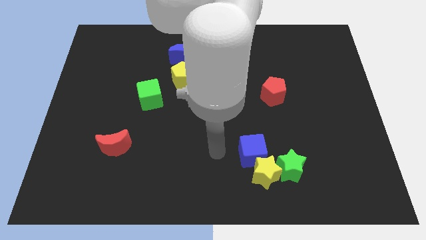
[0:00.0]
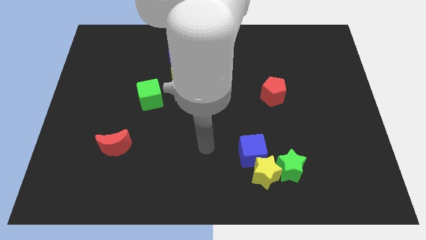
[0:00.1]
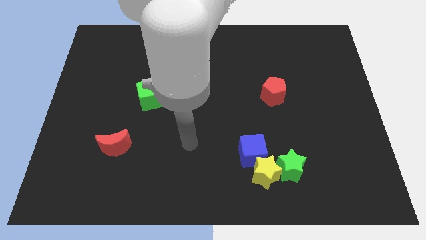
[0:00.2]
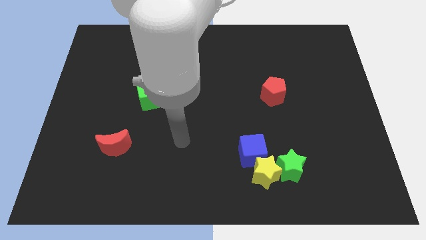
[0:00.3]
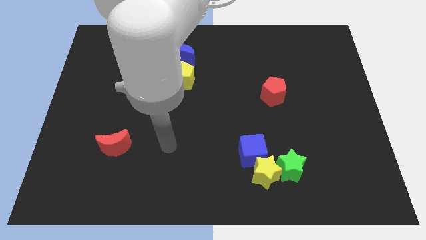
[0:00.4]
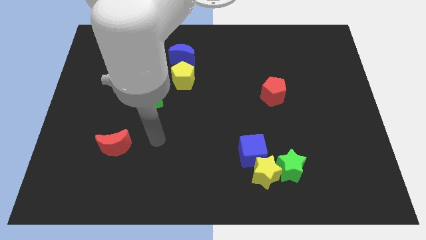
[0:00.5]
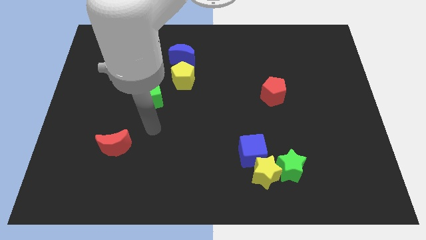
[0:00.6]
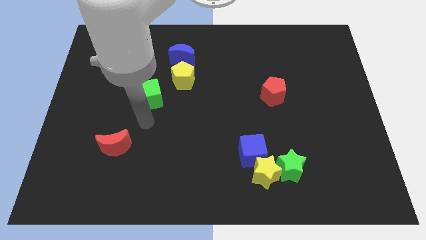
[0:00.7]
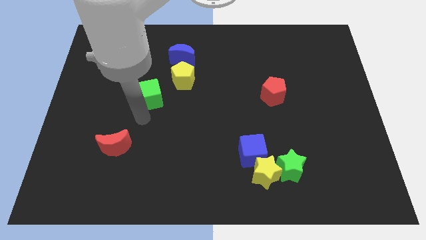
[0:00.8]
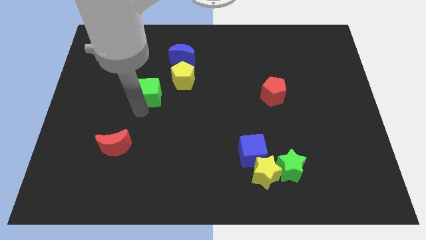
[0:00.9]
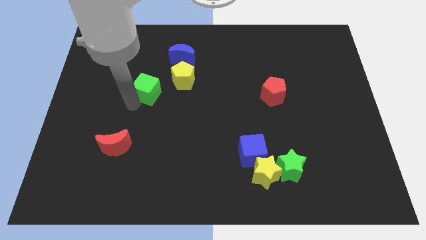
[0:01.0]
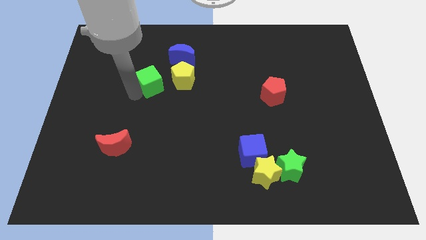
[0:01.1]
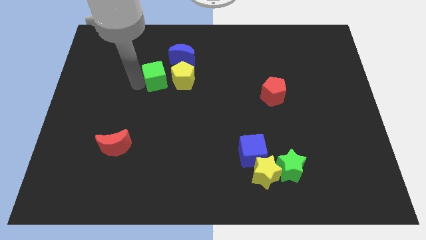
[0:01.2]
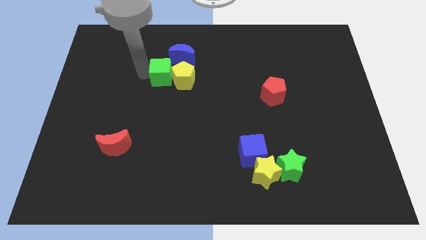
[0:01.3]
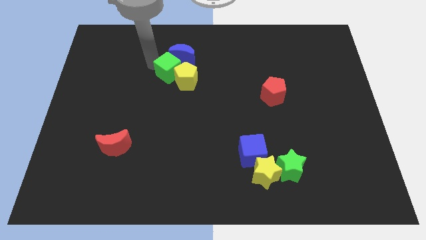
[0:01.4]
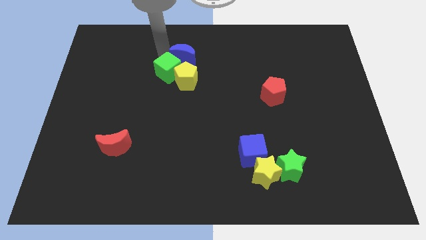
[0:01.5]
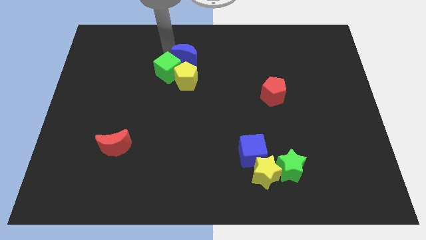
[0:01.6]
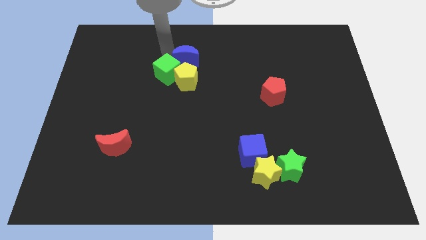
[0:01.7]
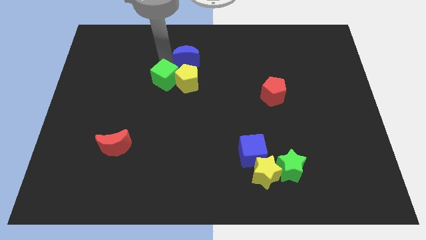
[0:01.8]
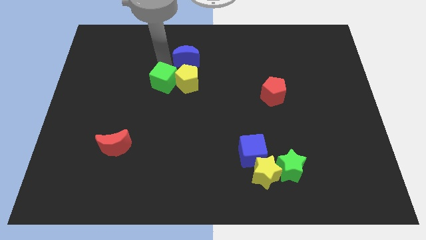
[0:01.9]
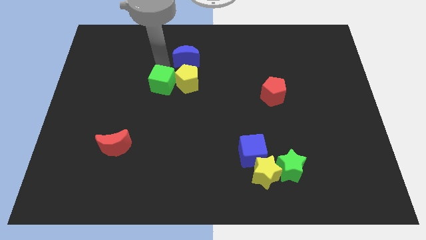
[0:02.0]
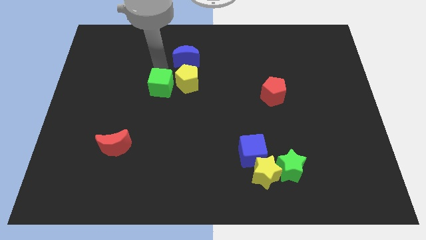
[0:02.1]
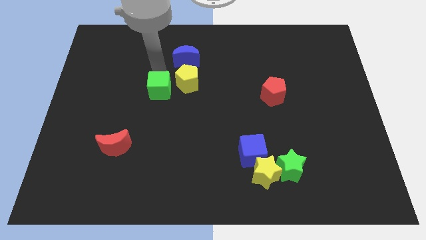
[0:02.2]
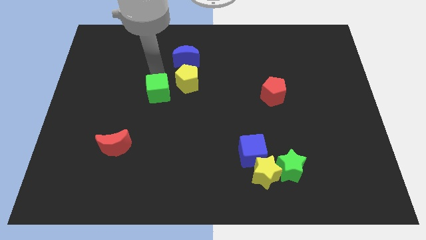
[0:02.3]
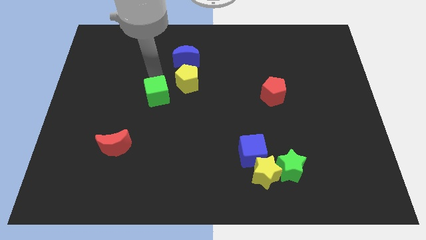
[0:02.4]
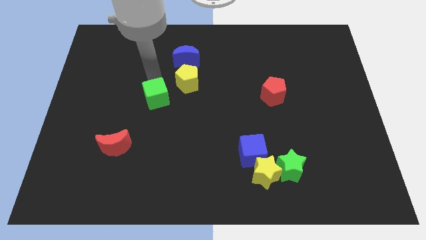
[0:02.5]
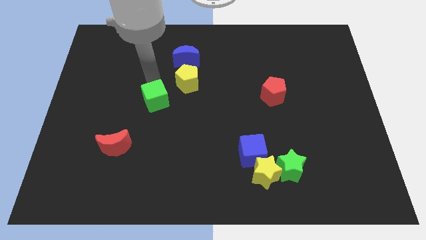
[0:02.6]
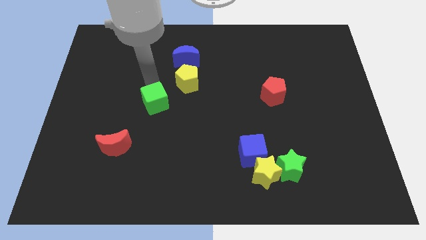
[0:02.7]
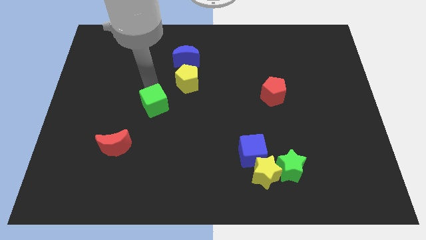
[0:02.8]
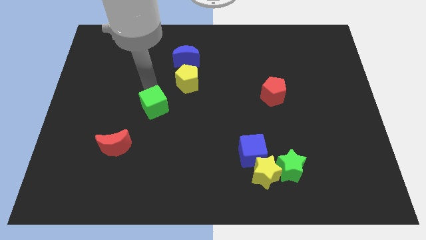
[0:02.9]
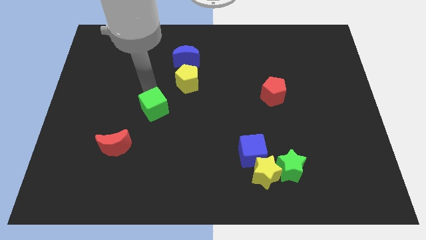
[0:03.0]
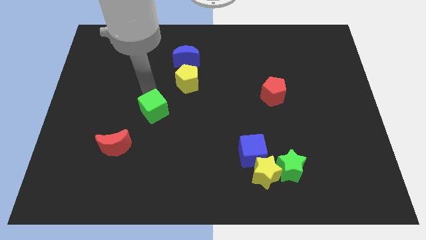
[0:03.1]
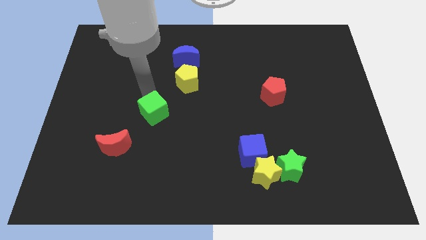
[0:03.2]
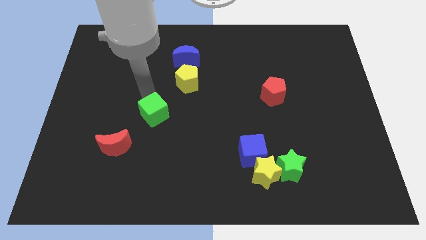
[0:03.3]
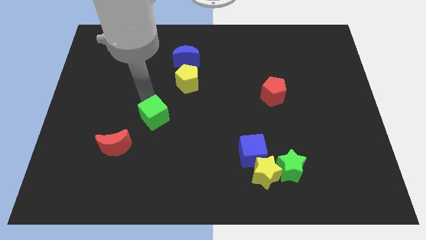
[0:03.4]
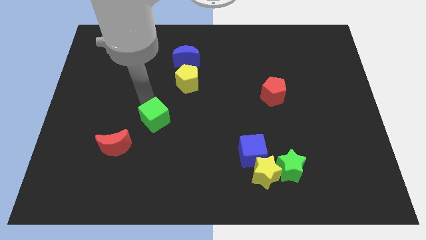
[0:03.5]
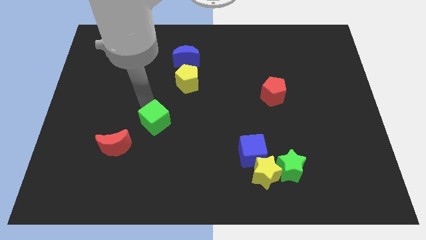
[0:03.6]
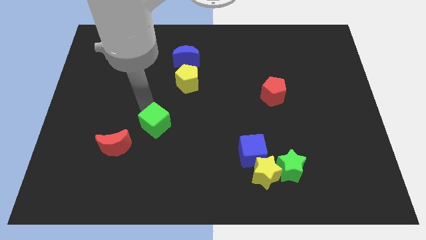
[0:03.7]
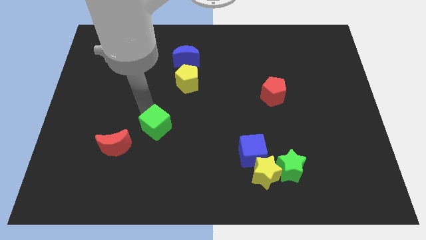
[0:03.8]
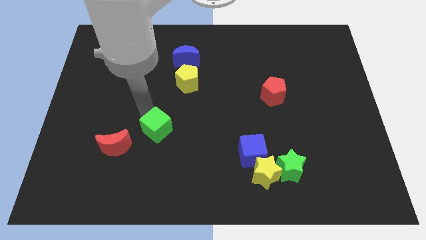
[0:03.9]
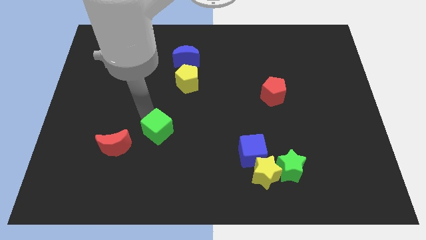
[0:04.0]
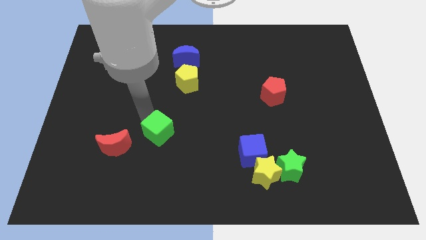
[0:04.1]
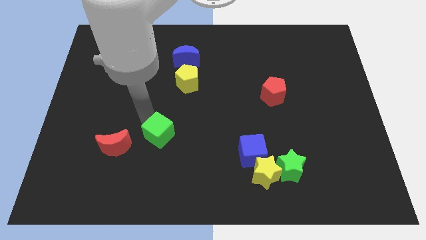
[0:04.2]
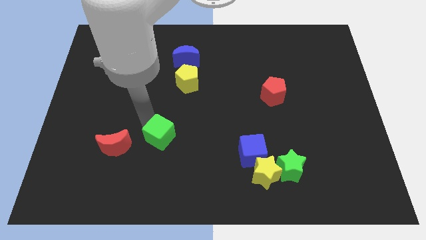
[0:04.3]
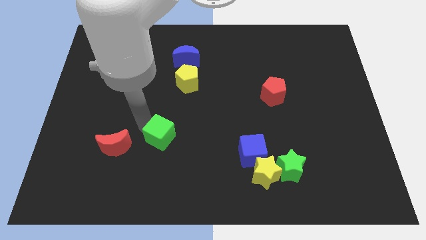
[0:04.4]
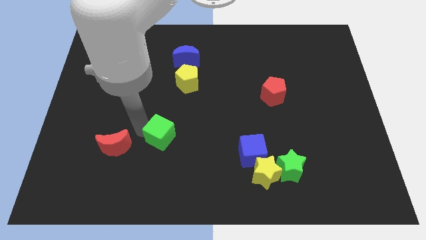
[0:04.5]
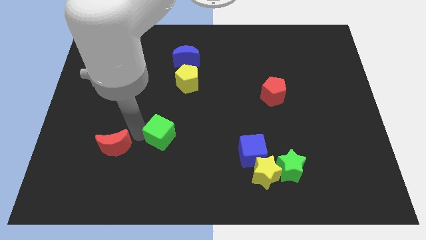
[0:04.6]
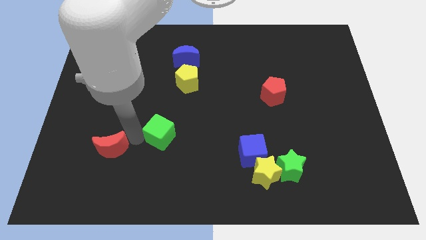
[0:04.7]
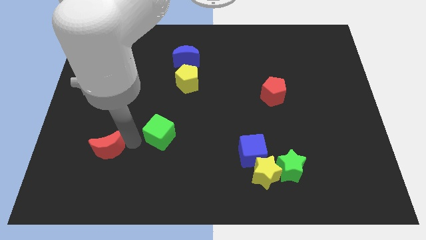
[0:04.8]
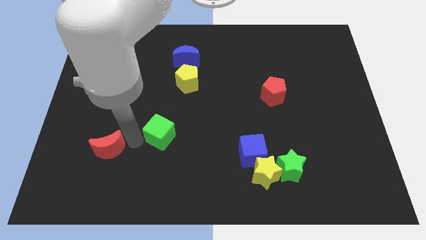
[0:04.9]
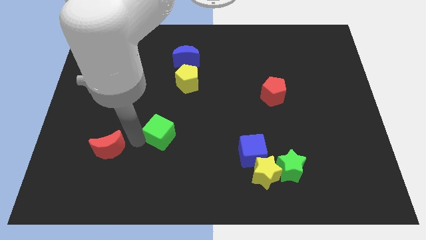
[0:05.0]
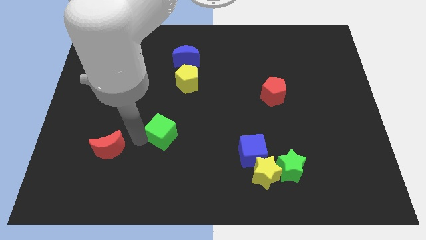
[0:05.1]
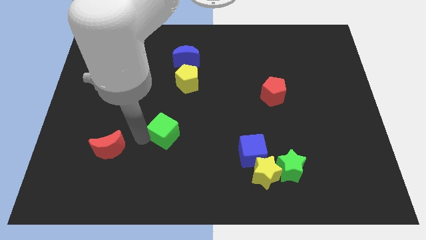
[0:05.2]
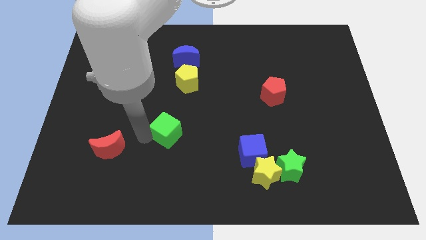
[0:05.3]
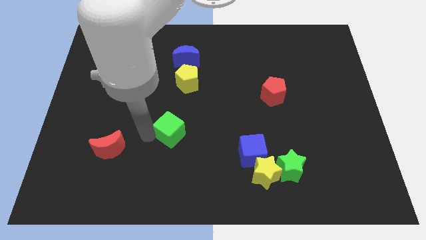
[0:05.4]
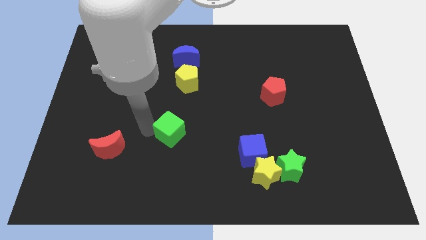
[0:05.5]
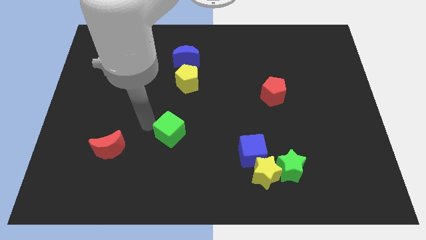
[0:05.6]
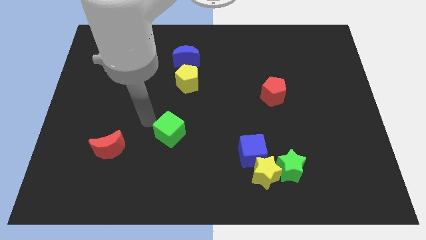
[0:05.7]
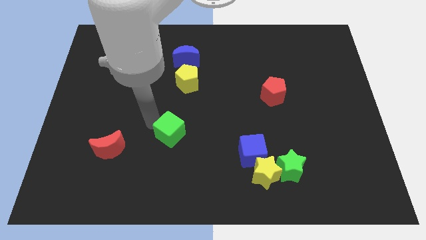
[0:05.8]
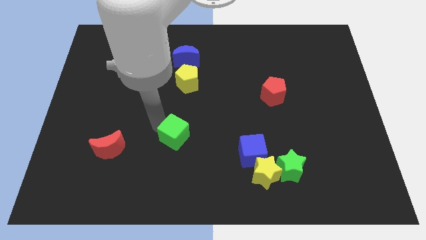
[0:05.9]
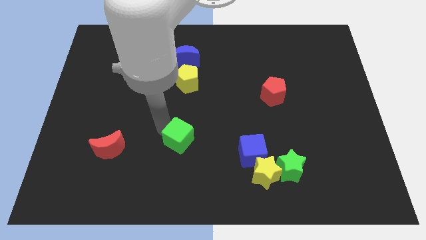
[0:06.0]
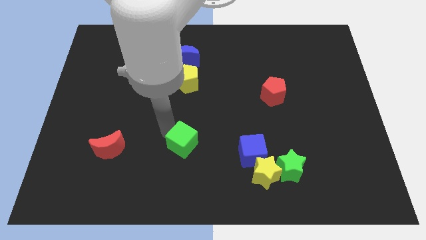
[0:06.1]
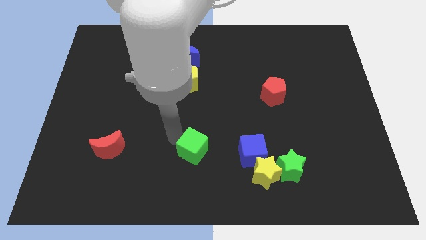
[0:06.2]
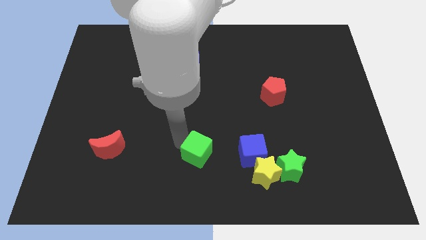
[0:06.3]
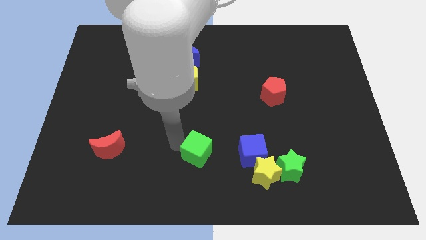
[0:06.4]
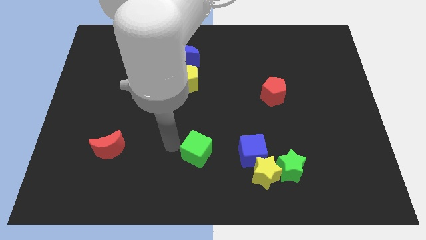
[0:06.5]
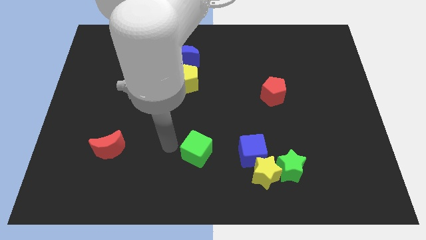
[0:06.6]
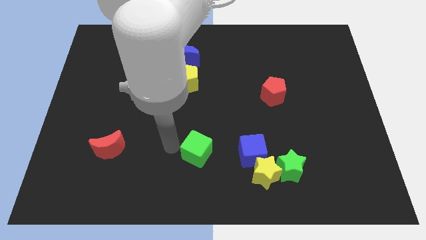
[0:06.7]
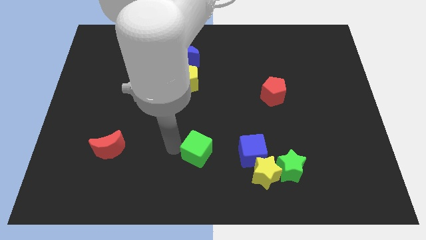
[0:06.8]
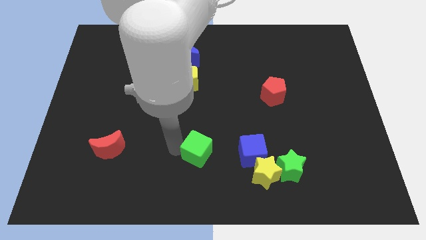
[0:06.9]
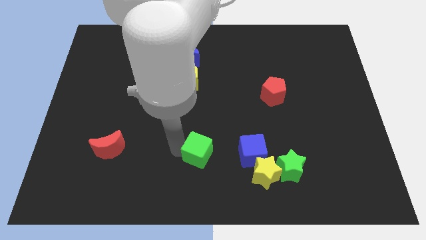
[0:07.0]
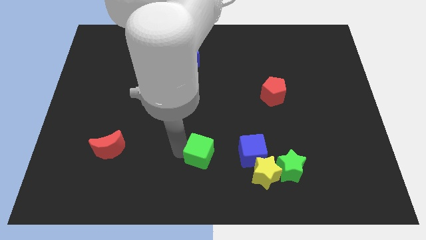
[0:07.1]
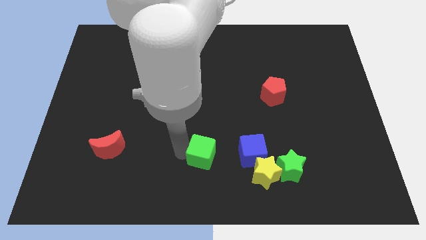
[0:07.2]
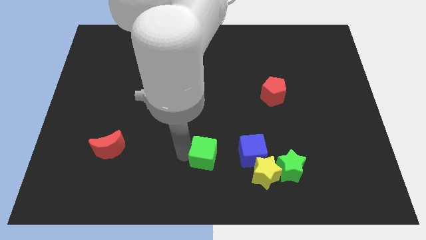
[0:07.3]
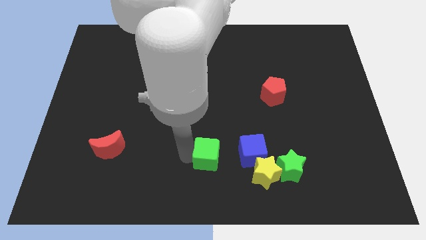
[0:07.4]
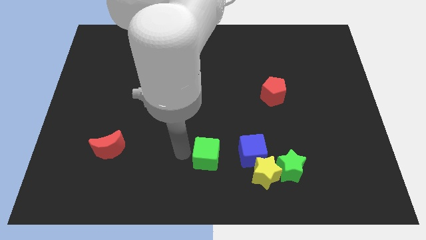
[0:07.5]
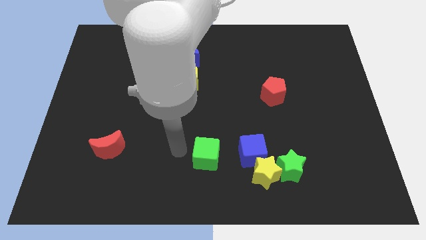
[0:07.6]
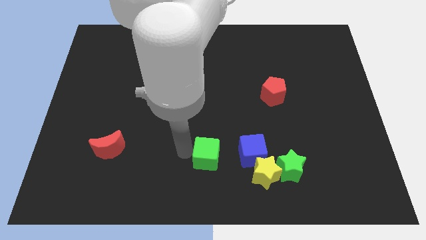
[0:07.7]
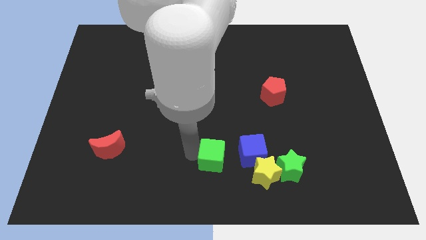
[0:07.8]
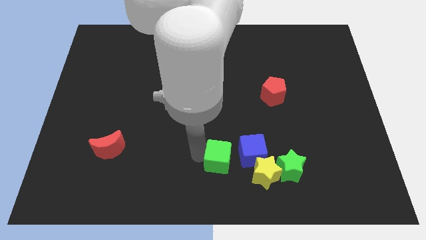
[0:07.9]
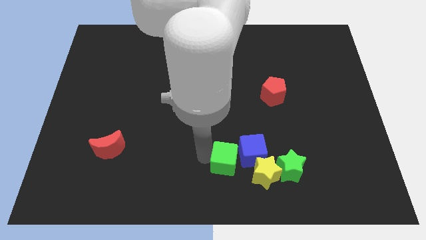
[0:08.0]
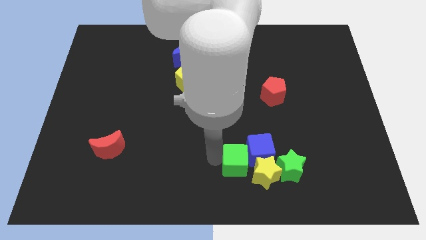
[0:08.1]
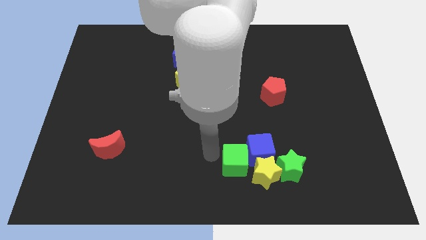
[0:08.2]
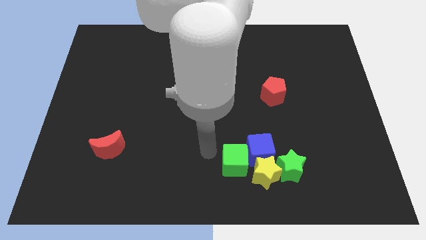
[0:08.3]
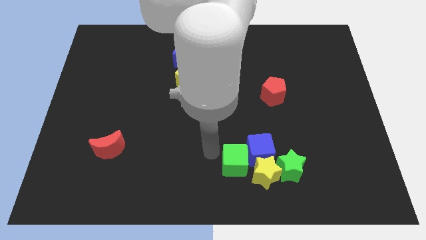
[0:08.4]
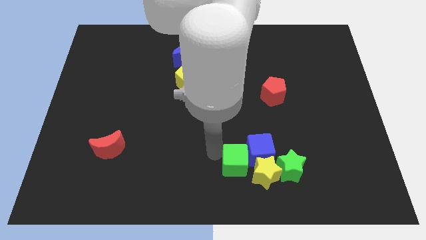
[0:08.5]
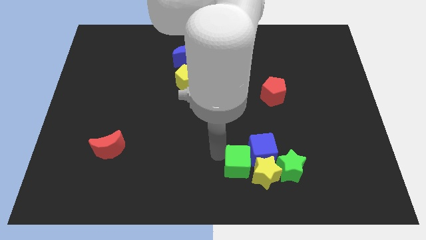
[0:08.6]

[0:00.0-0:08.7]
put the green cube close to the yellow star
